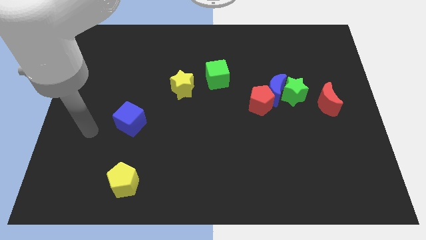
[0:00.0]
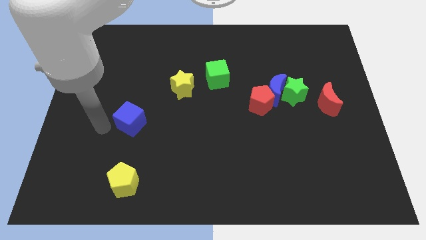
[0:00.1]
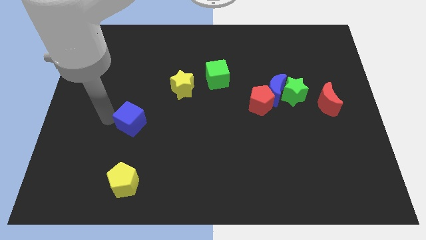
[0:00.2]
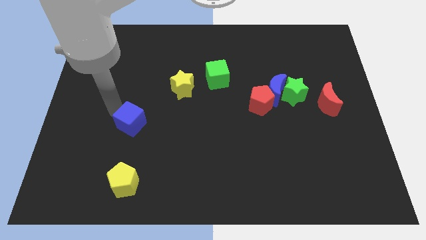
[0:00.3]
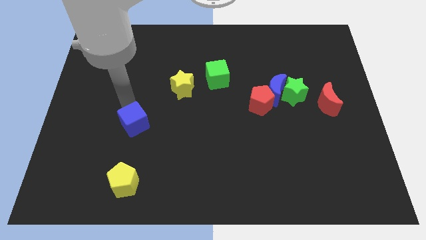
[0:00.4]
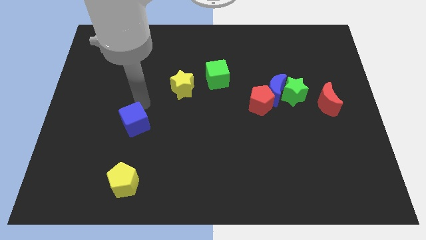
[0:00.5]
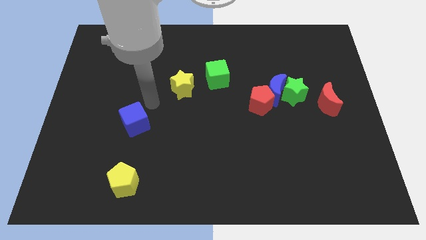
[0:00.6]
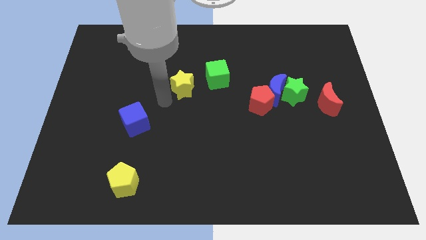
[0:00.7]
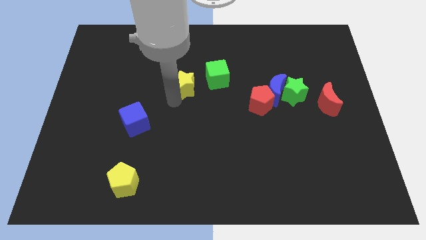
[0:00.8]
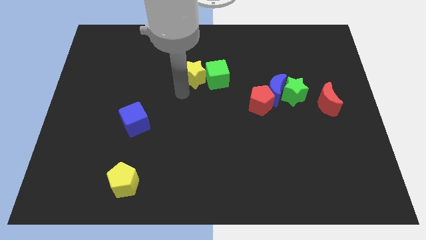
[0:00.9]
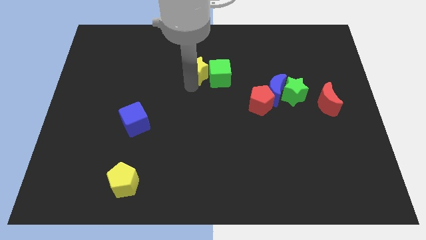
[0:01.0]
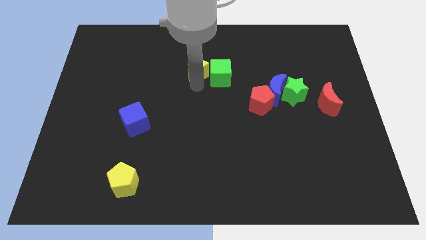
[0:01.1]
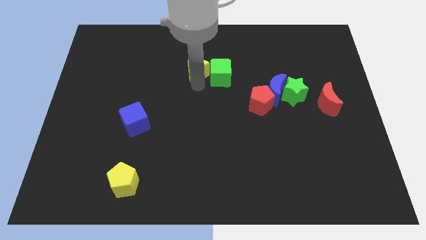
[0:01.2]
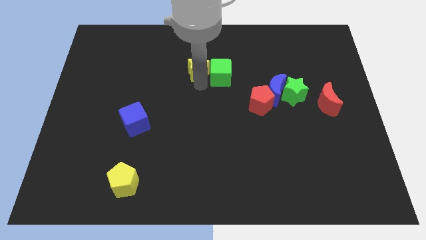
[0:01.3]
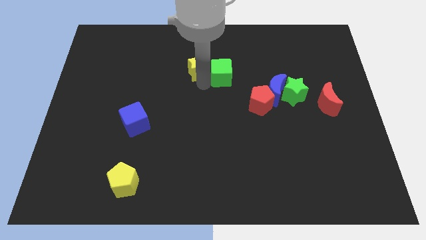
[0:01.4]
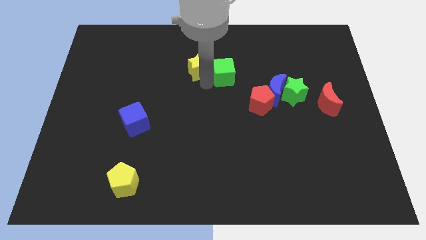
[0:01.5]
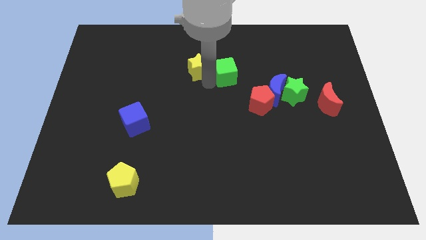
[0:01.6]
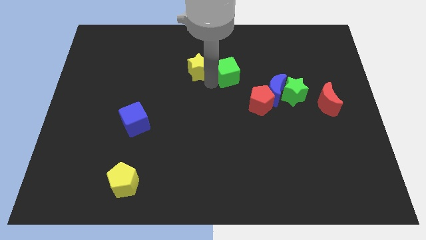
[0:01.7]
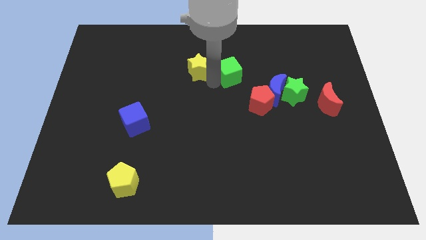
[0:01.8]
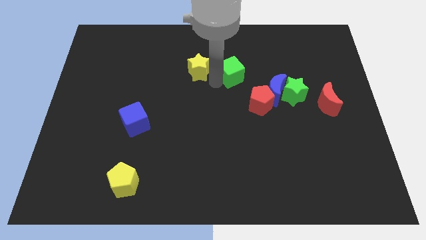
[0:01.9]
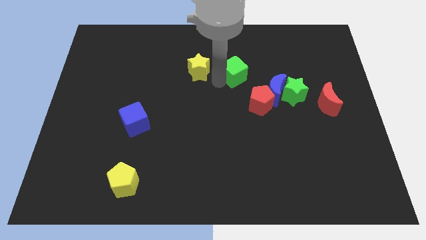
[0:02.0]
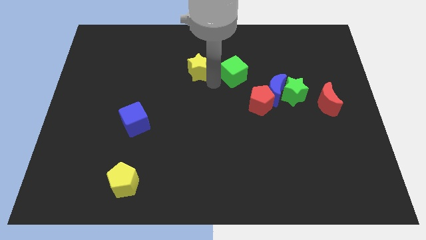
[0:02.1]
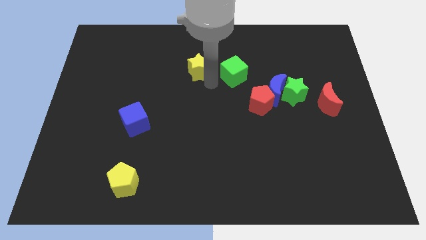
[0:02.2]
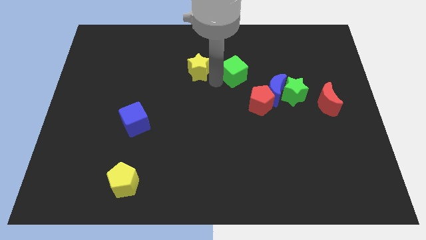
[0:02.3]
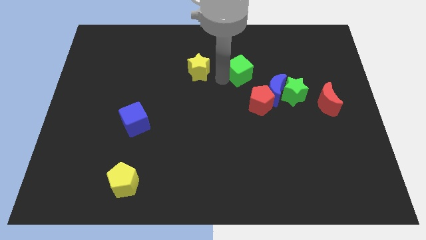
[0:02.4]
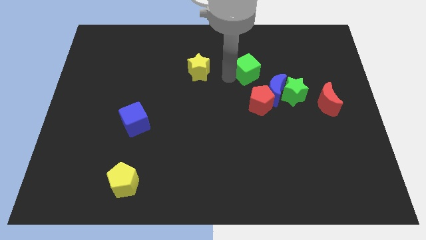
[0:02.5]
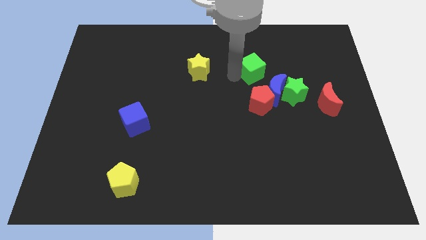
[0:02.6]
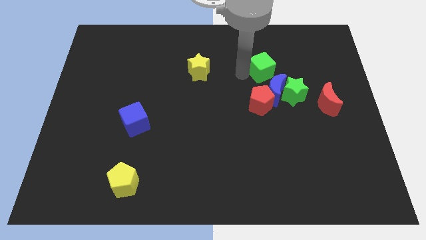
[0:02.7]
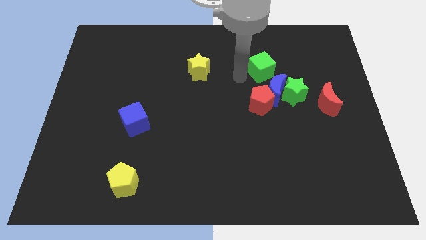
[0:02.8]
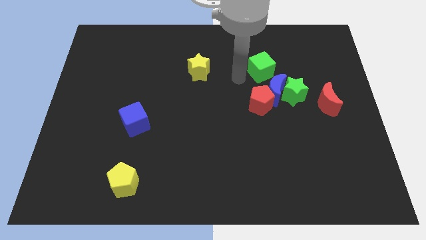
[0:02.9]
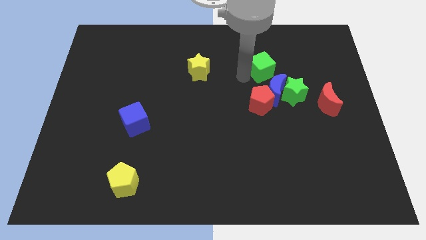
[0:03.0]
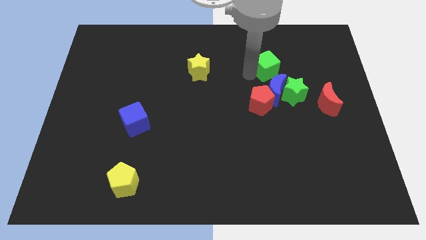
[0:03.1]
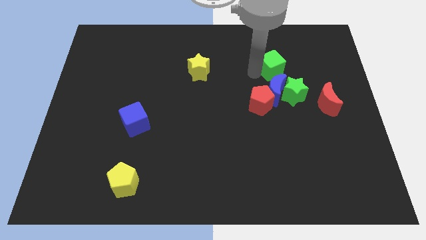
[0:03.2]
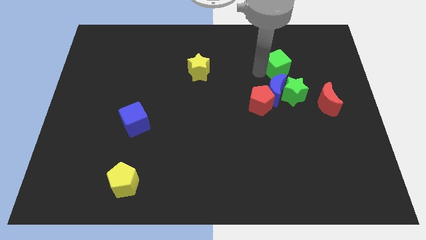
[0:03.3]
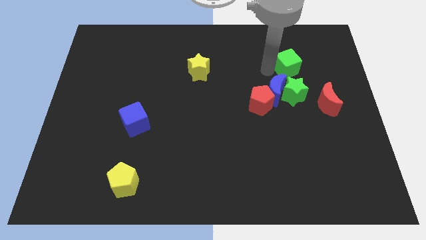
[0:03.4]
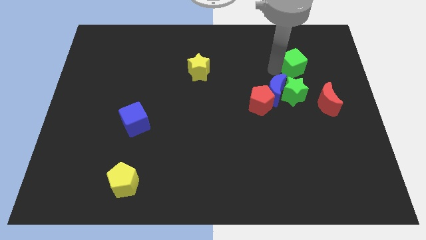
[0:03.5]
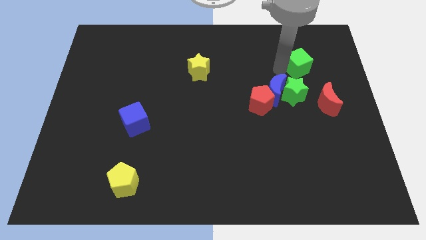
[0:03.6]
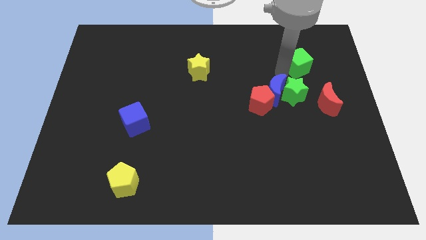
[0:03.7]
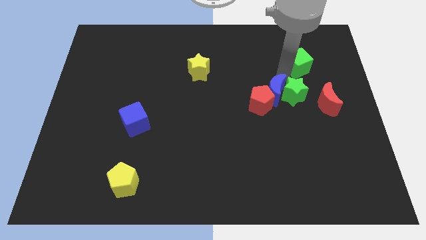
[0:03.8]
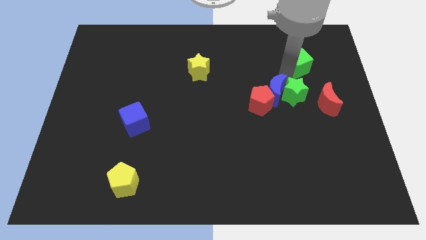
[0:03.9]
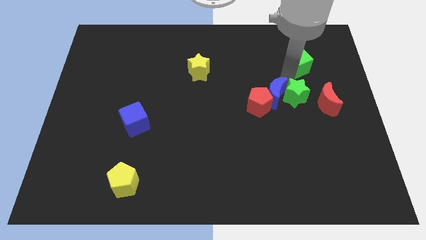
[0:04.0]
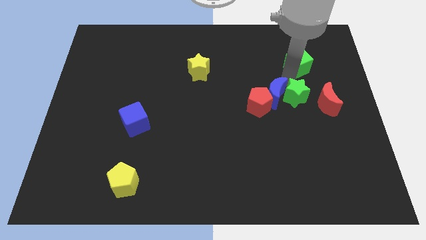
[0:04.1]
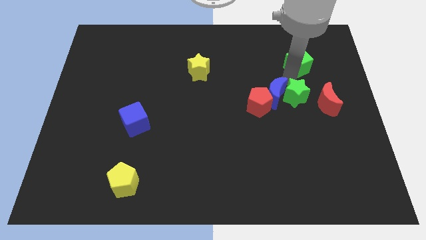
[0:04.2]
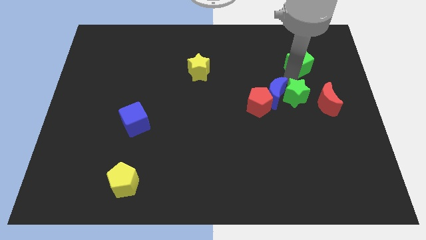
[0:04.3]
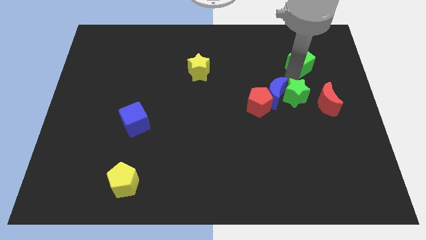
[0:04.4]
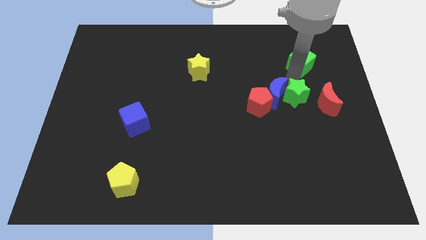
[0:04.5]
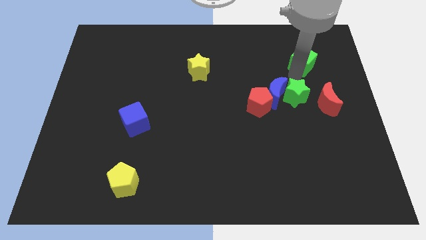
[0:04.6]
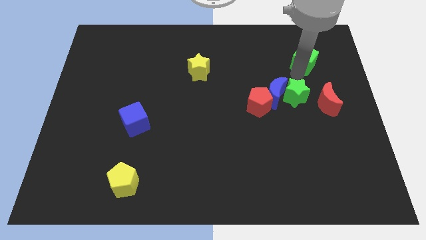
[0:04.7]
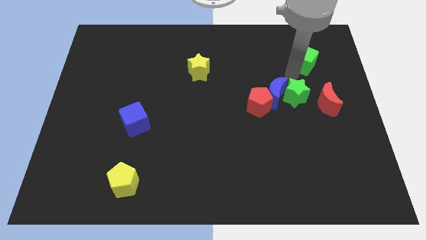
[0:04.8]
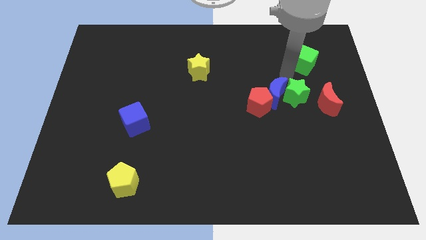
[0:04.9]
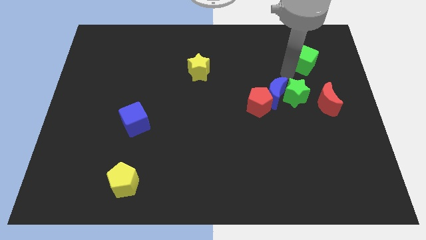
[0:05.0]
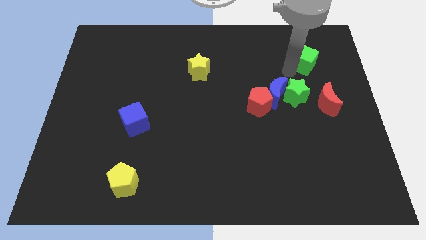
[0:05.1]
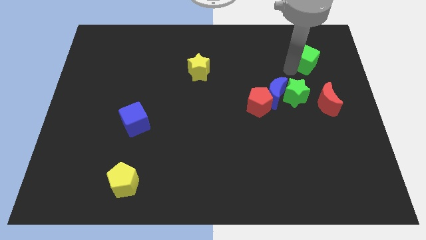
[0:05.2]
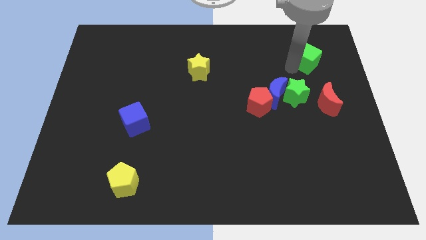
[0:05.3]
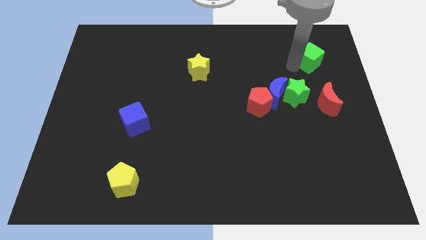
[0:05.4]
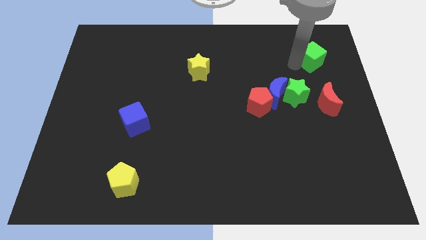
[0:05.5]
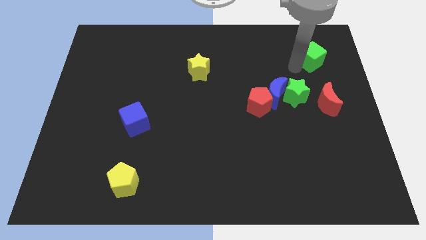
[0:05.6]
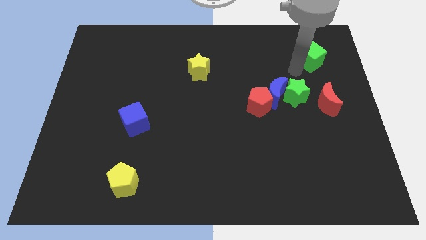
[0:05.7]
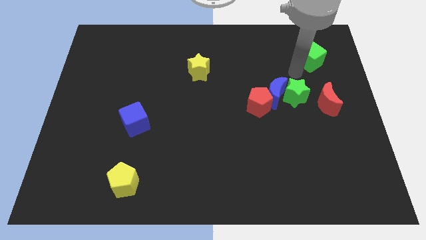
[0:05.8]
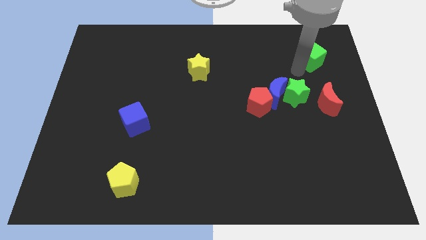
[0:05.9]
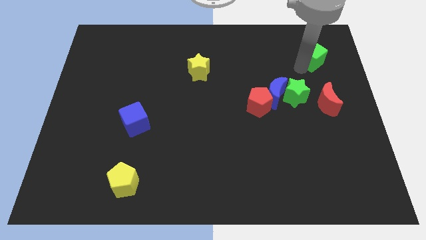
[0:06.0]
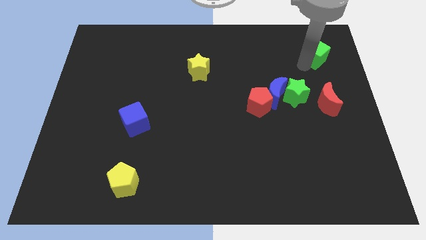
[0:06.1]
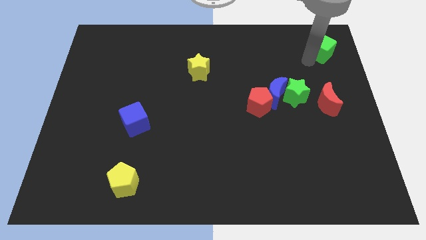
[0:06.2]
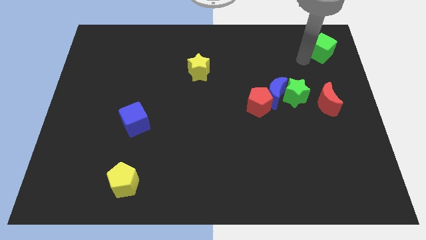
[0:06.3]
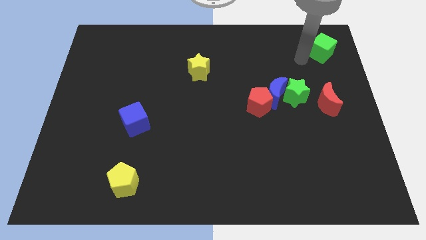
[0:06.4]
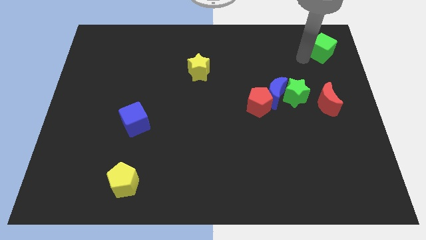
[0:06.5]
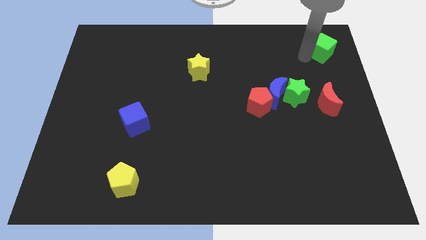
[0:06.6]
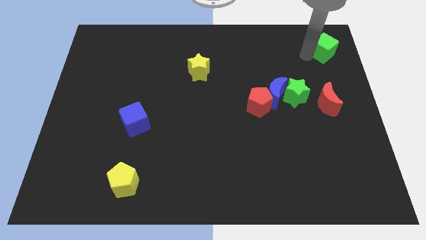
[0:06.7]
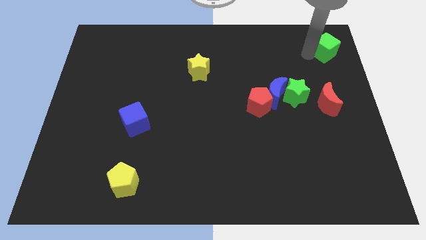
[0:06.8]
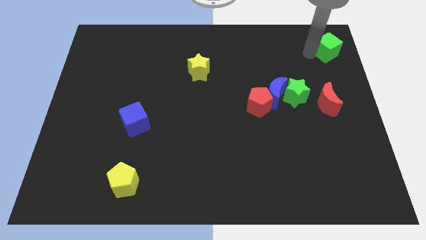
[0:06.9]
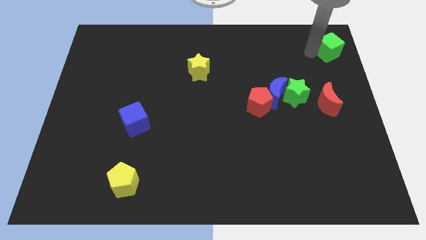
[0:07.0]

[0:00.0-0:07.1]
slide the green cube to the top right of the board
